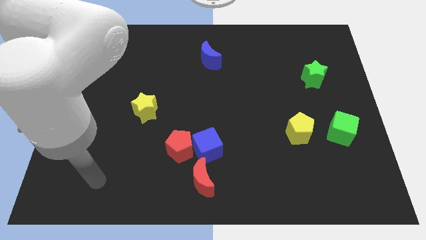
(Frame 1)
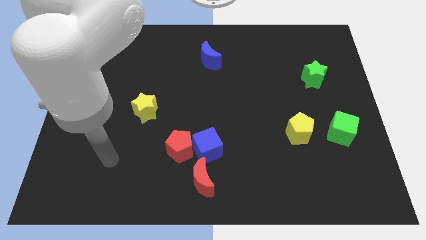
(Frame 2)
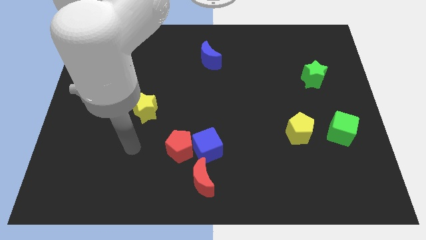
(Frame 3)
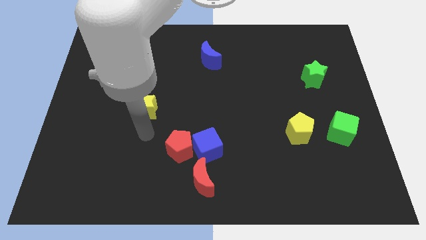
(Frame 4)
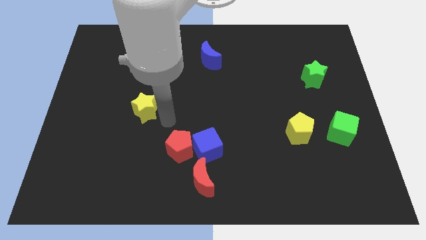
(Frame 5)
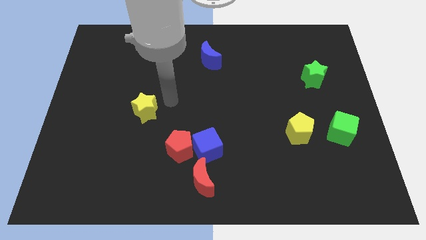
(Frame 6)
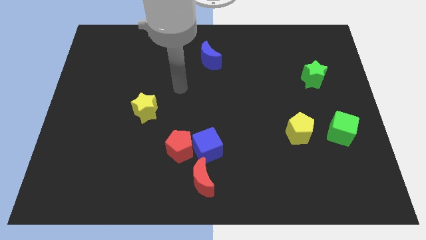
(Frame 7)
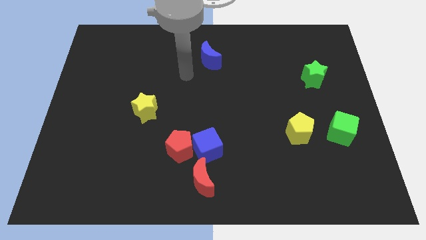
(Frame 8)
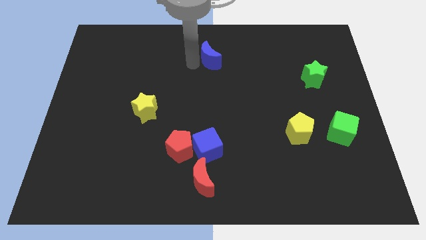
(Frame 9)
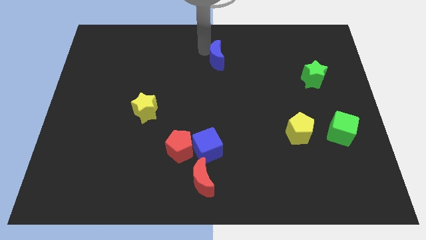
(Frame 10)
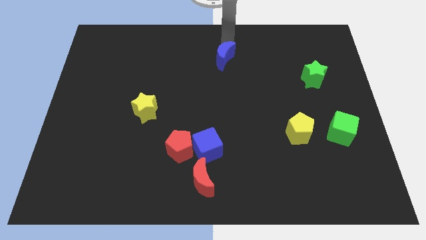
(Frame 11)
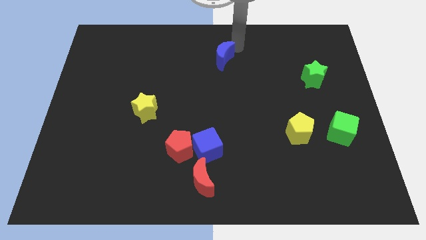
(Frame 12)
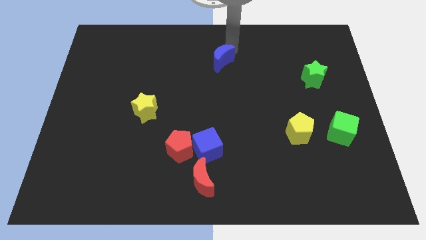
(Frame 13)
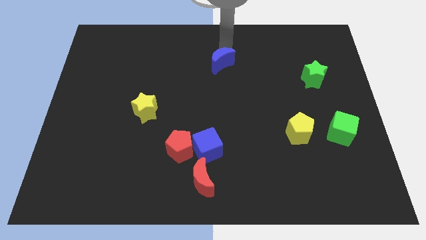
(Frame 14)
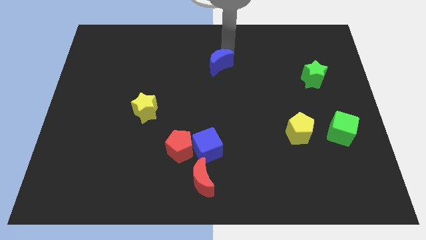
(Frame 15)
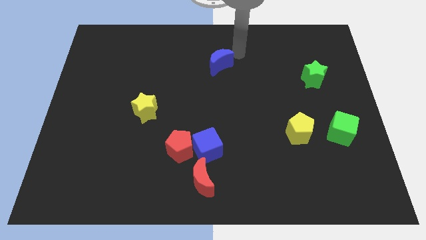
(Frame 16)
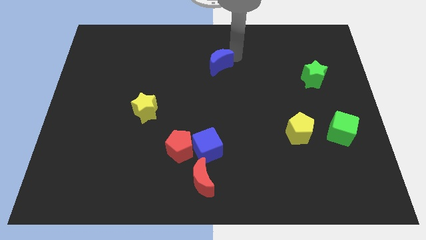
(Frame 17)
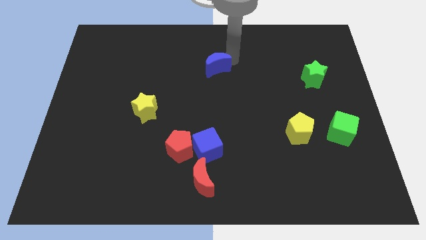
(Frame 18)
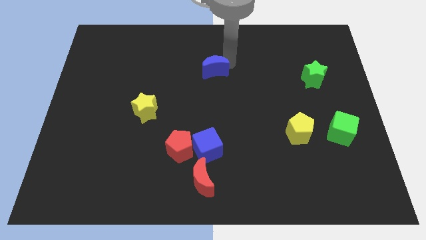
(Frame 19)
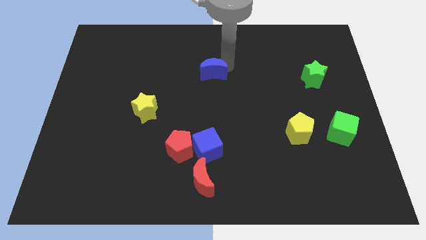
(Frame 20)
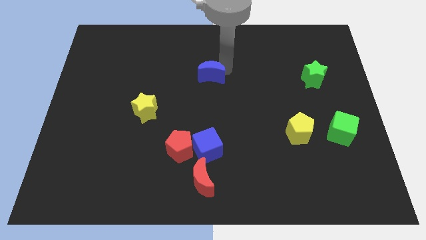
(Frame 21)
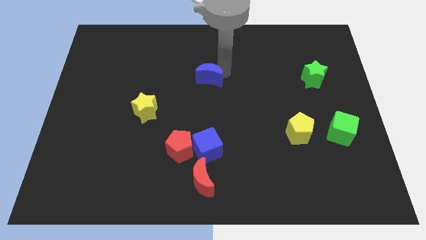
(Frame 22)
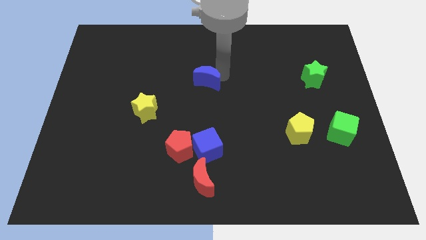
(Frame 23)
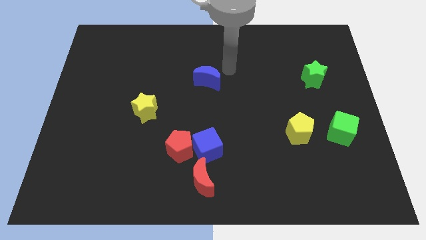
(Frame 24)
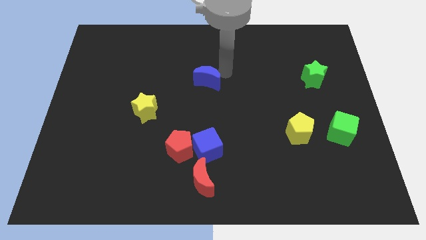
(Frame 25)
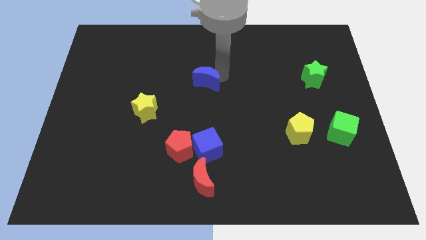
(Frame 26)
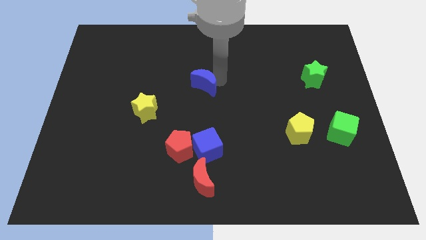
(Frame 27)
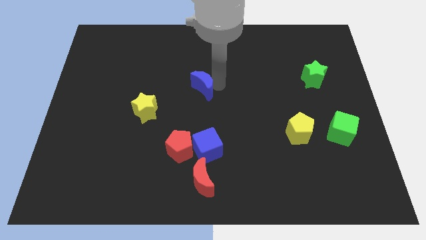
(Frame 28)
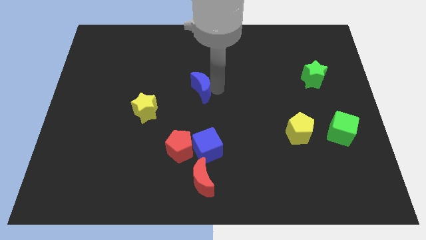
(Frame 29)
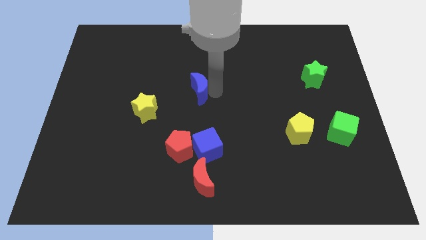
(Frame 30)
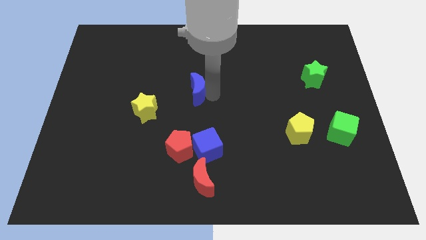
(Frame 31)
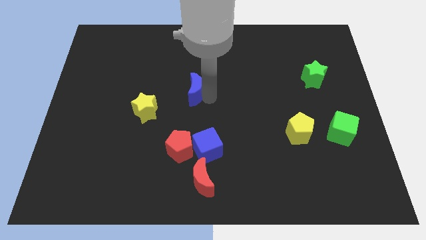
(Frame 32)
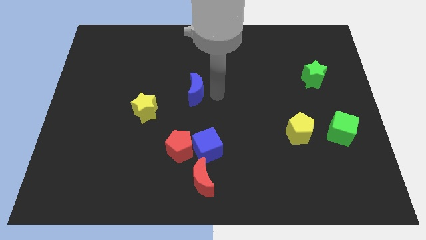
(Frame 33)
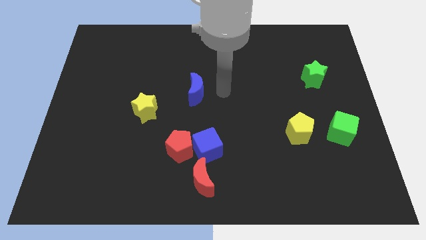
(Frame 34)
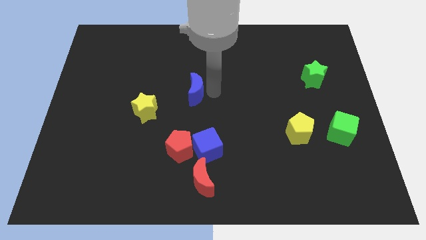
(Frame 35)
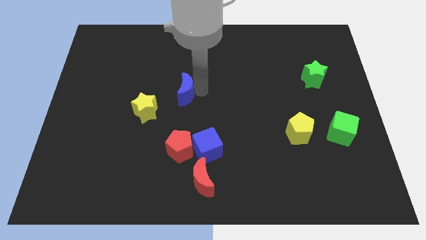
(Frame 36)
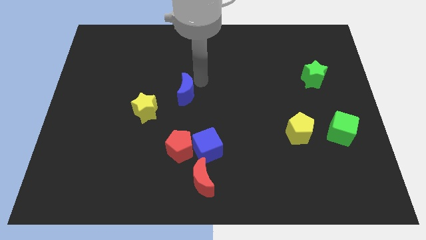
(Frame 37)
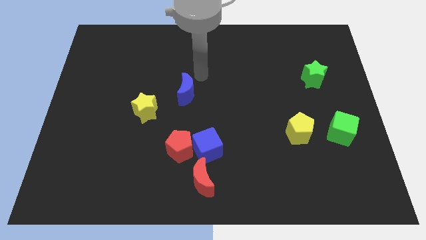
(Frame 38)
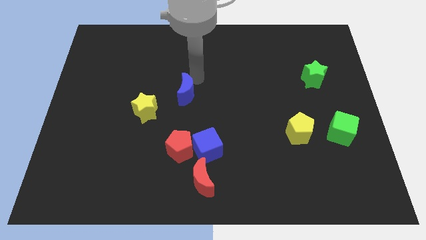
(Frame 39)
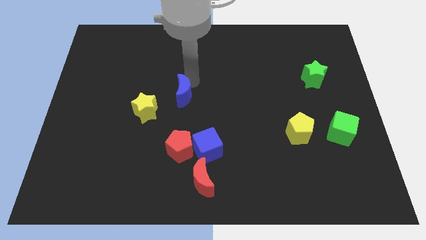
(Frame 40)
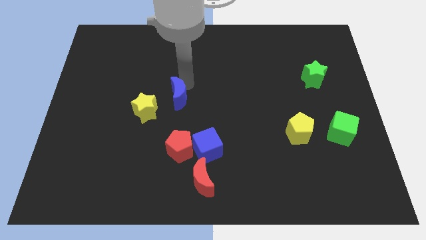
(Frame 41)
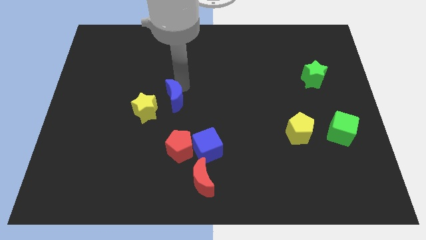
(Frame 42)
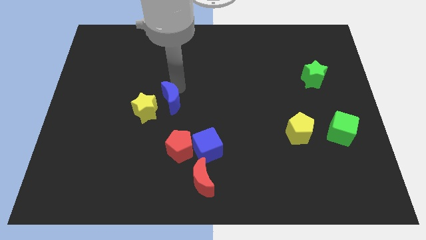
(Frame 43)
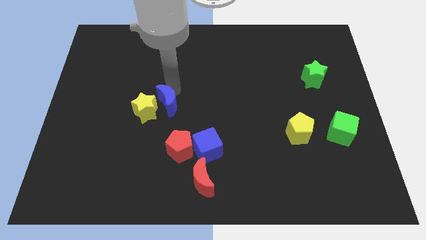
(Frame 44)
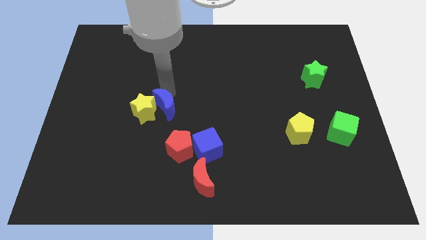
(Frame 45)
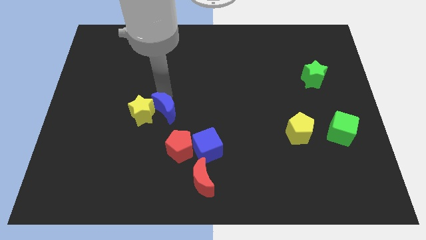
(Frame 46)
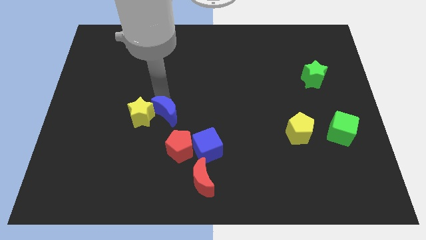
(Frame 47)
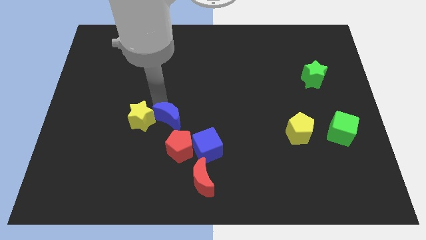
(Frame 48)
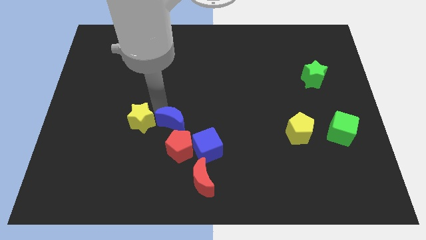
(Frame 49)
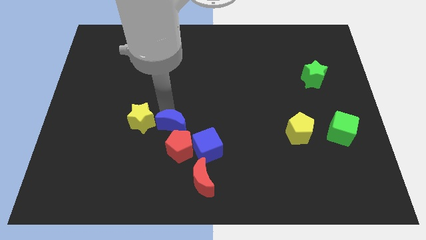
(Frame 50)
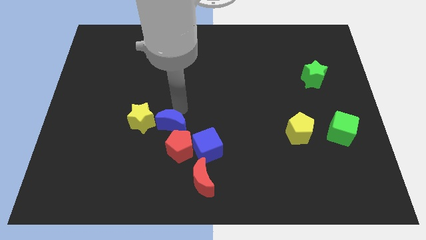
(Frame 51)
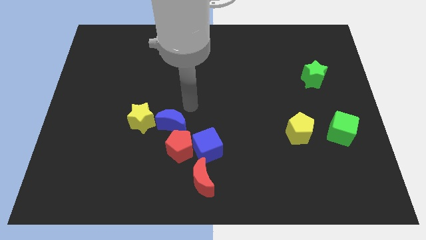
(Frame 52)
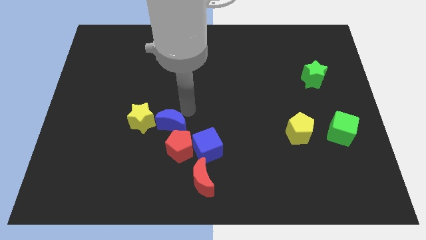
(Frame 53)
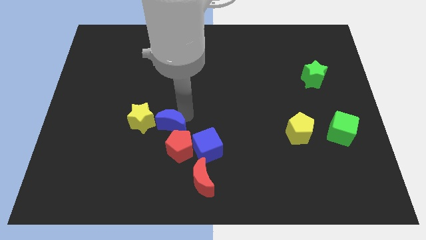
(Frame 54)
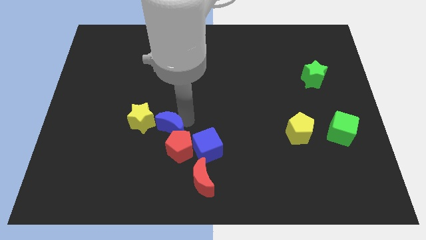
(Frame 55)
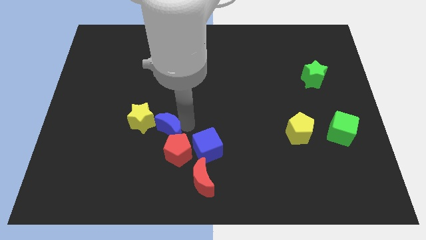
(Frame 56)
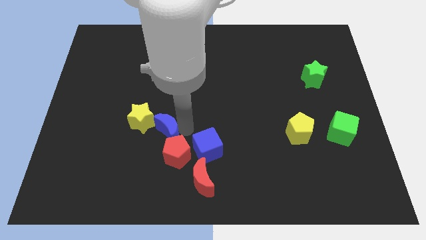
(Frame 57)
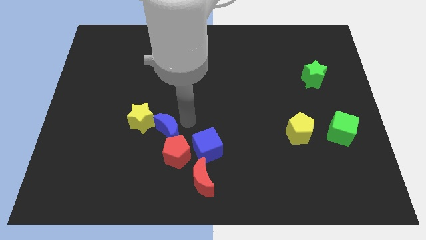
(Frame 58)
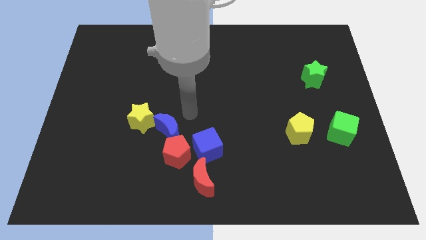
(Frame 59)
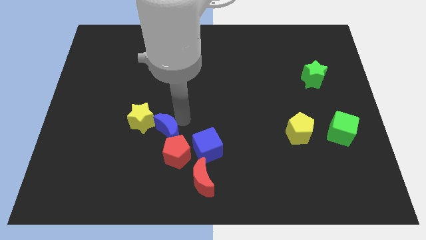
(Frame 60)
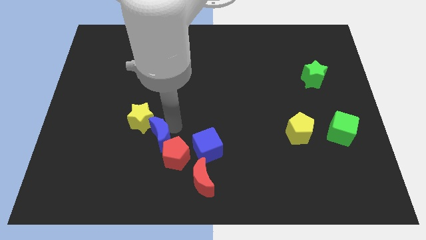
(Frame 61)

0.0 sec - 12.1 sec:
move the blue moon below the yellow star

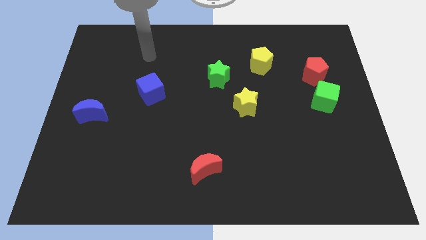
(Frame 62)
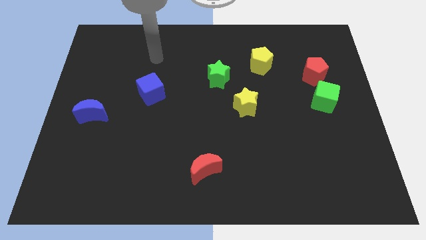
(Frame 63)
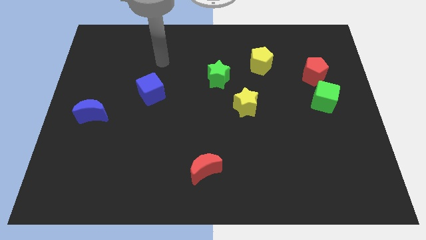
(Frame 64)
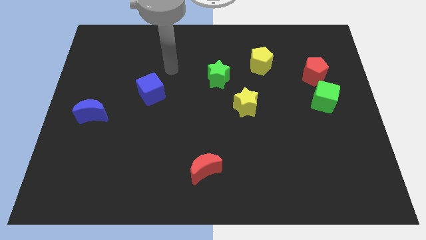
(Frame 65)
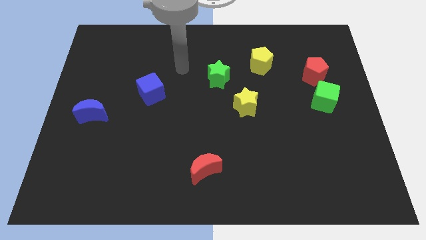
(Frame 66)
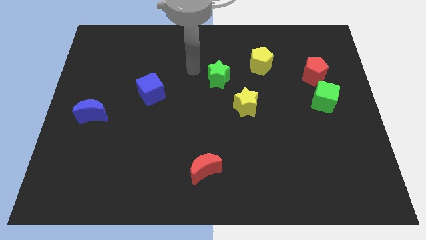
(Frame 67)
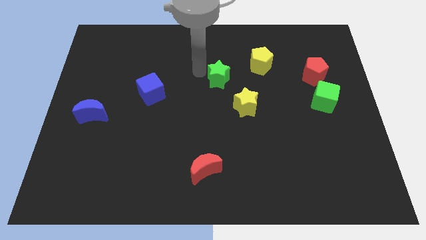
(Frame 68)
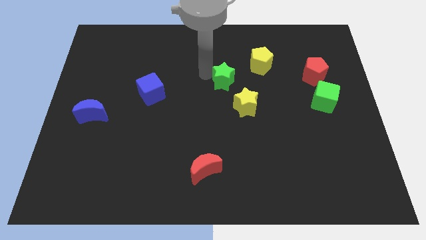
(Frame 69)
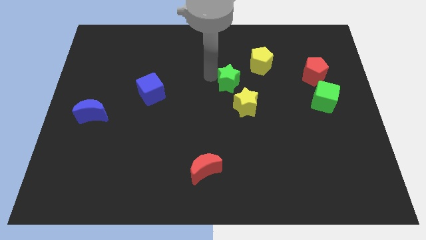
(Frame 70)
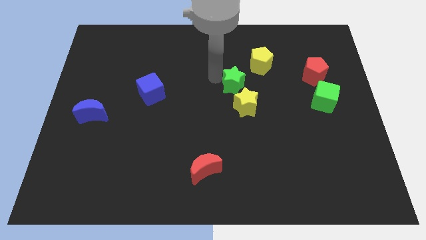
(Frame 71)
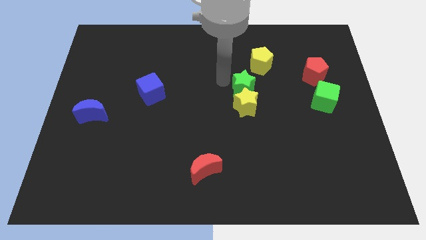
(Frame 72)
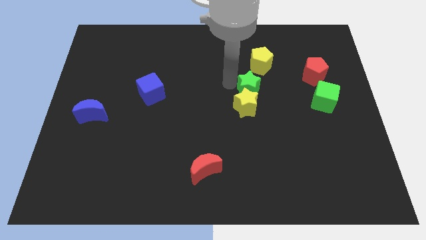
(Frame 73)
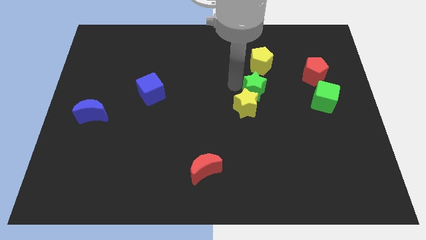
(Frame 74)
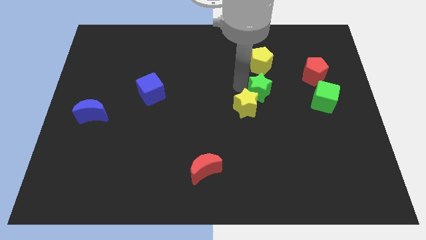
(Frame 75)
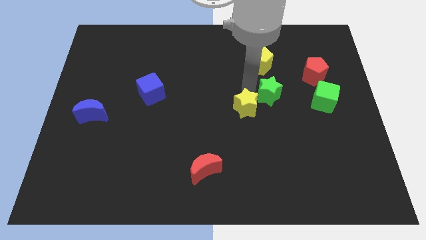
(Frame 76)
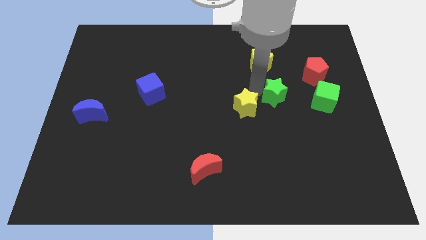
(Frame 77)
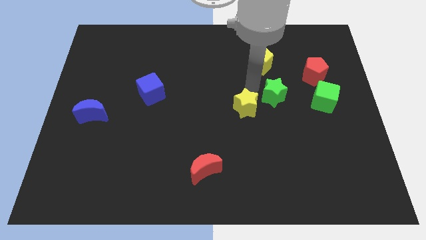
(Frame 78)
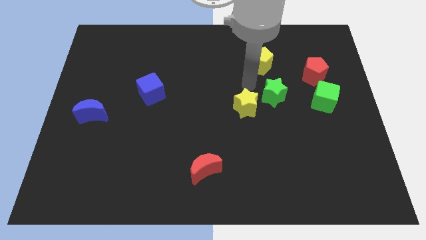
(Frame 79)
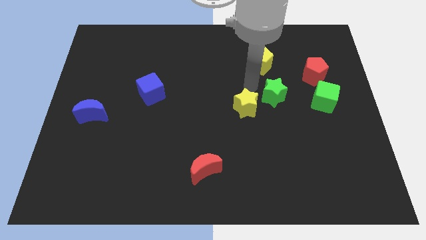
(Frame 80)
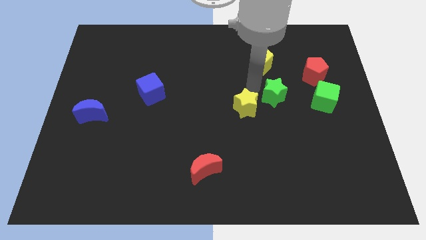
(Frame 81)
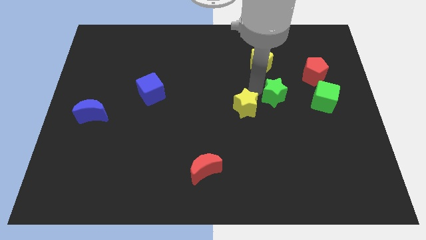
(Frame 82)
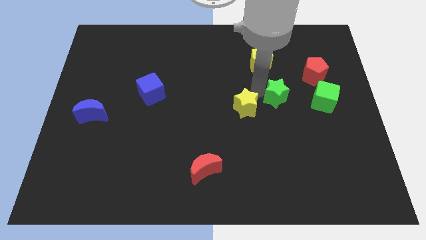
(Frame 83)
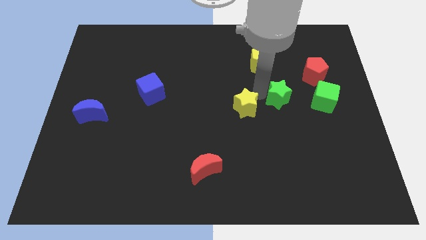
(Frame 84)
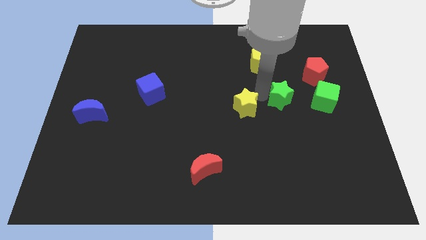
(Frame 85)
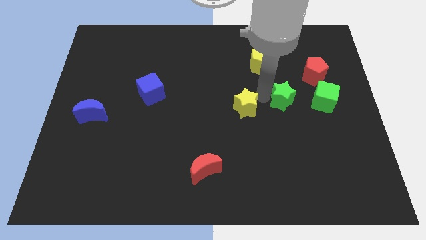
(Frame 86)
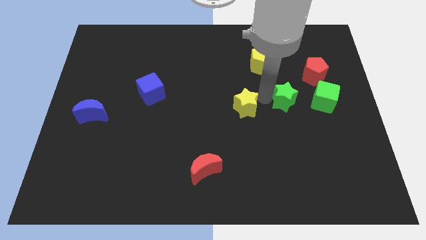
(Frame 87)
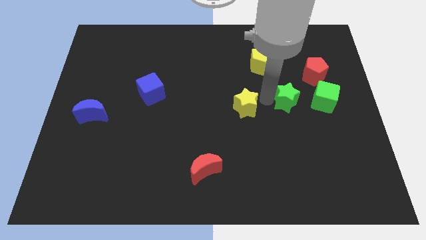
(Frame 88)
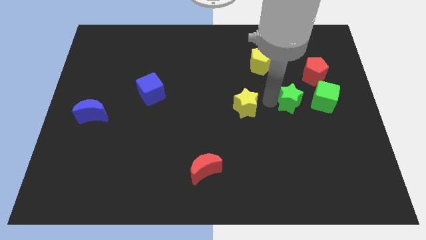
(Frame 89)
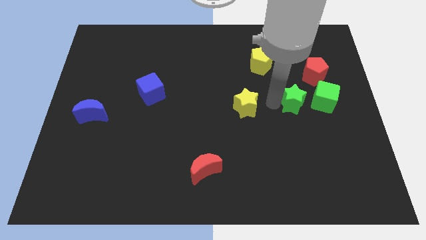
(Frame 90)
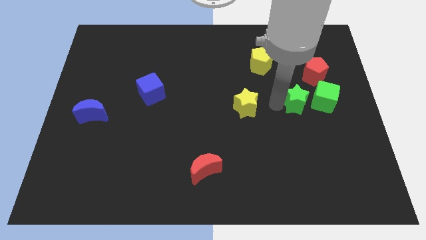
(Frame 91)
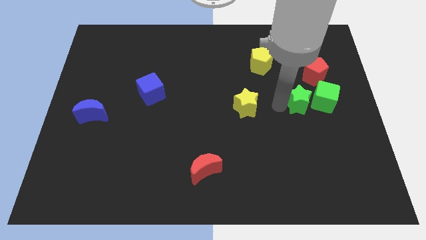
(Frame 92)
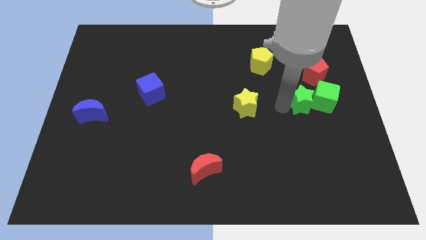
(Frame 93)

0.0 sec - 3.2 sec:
push the green star to the bottom of the red pentagon
